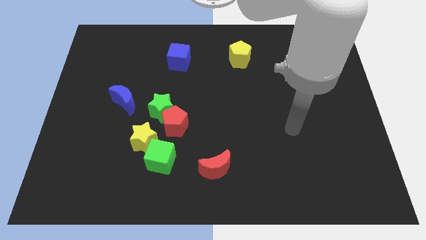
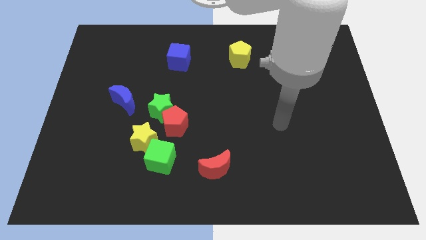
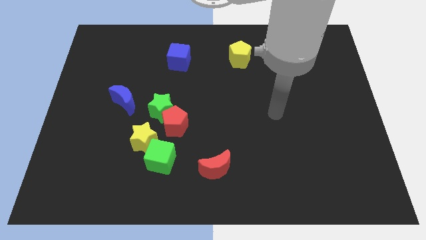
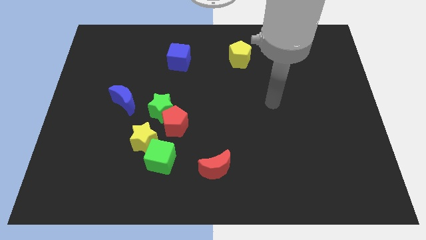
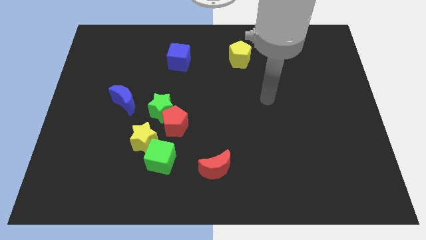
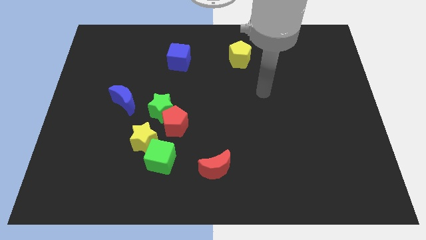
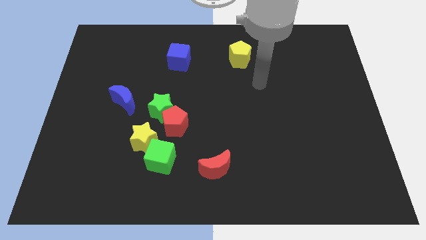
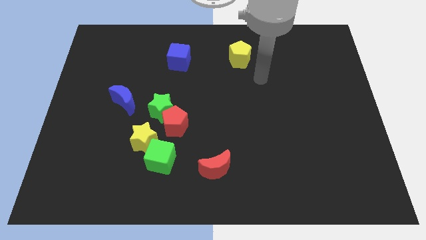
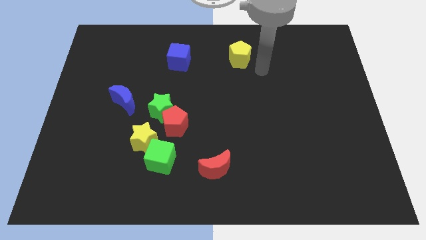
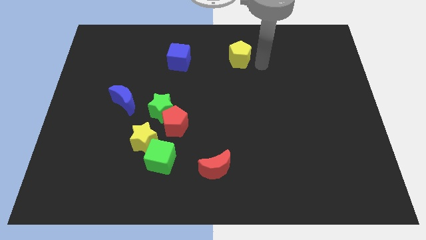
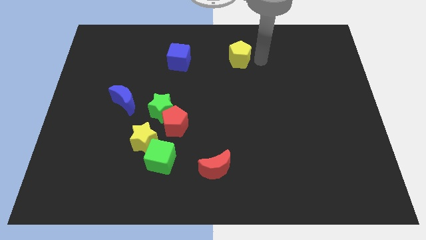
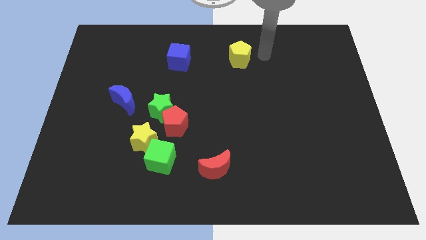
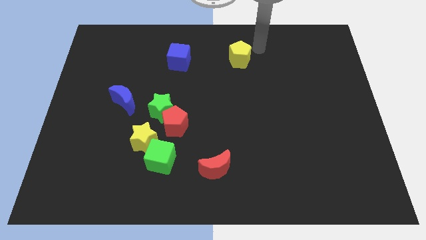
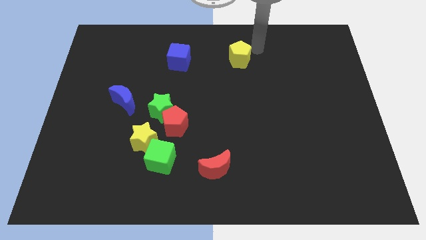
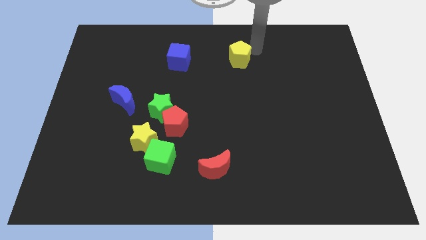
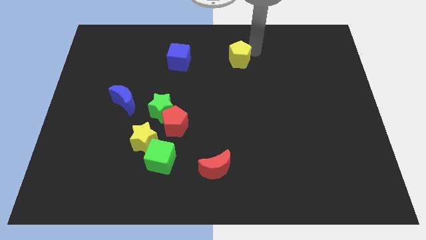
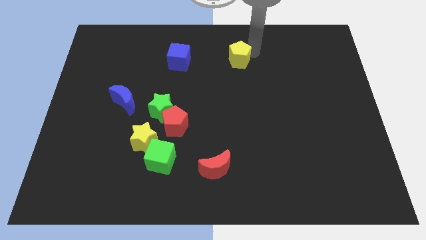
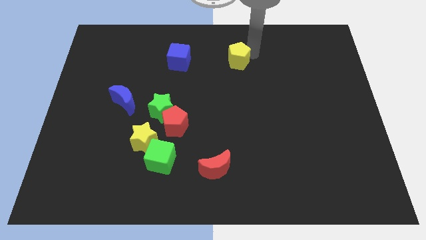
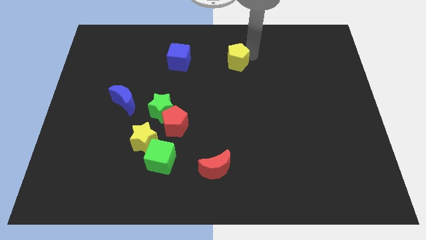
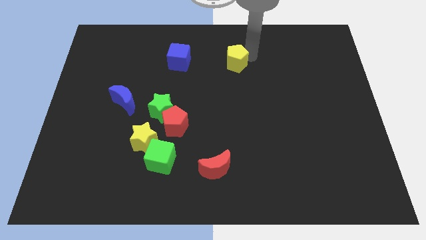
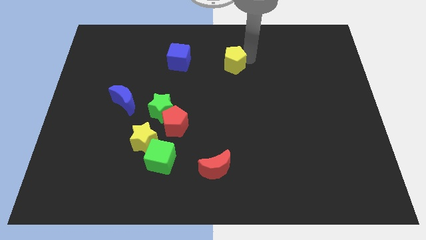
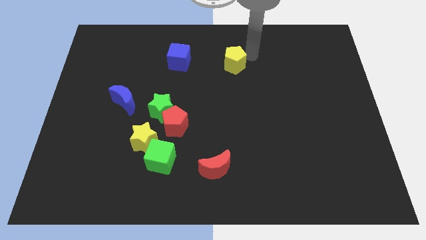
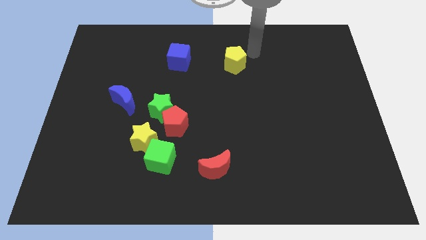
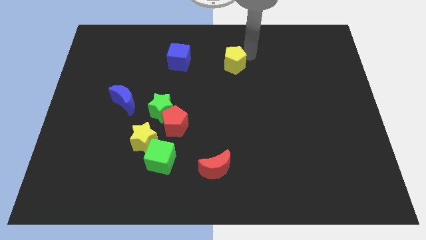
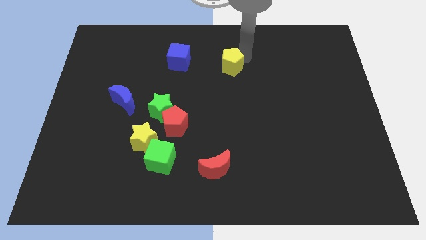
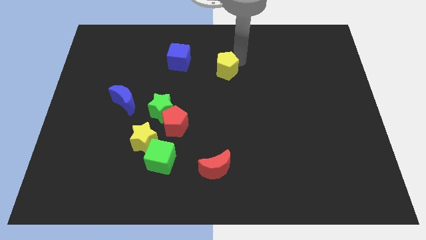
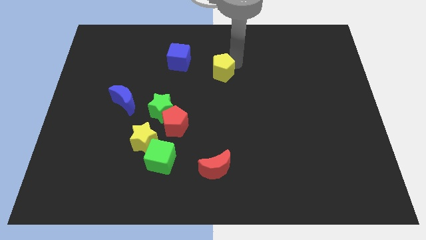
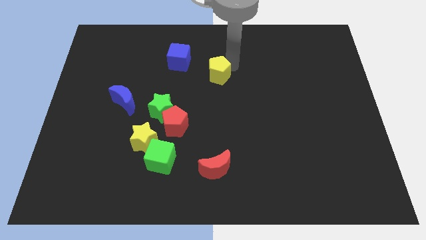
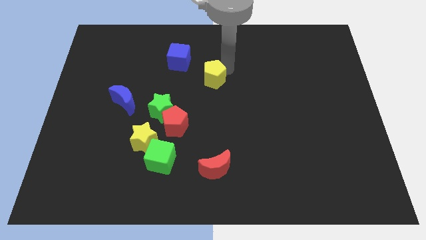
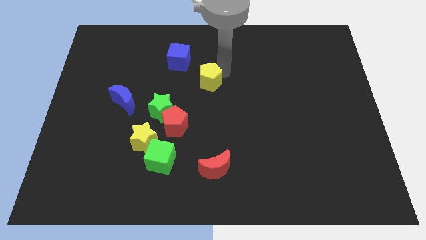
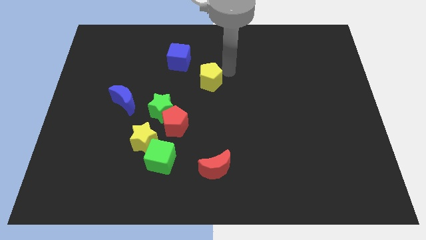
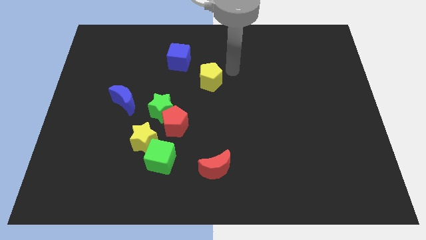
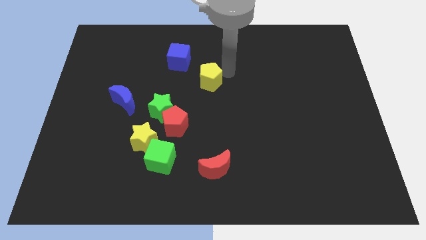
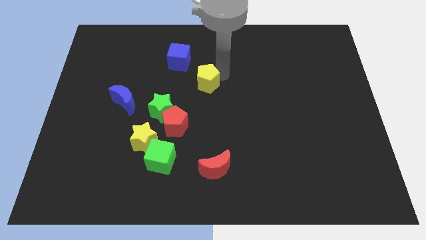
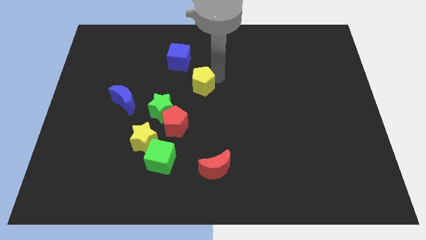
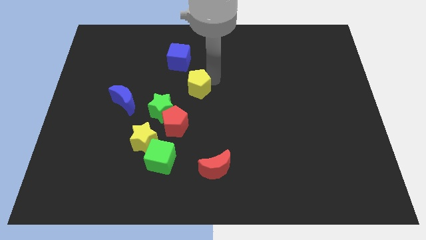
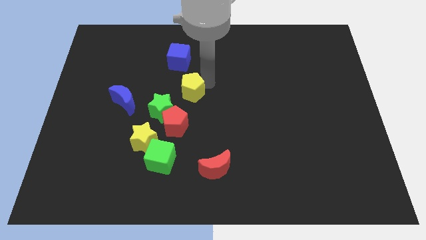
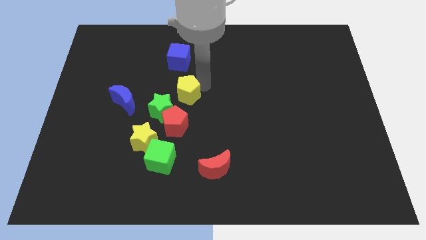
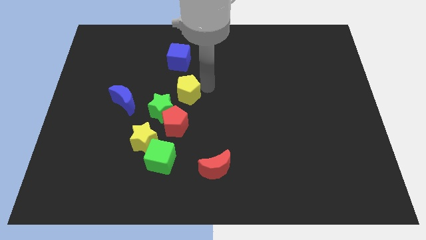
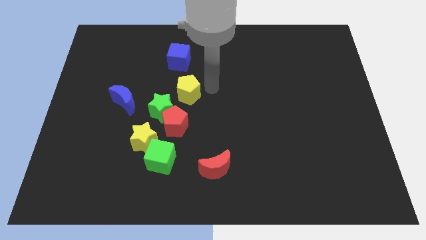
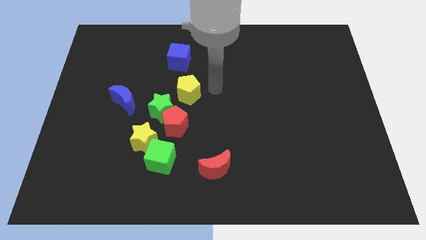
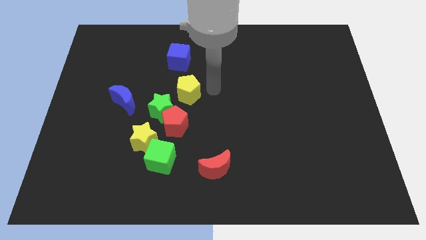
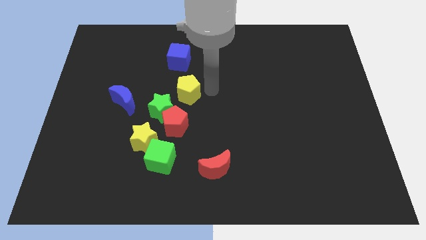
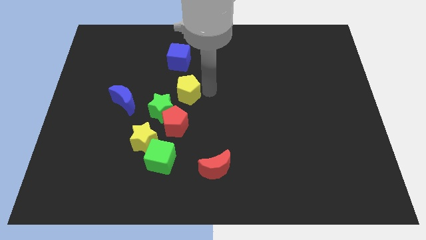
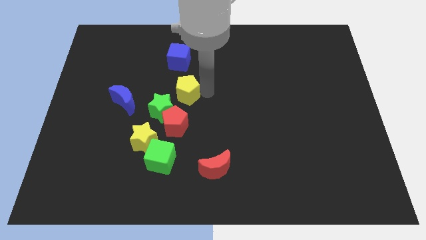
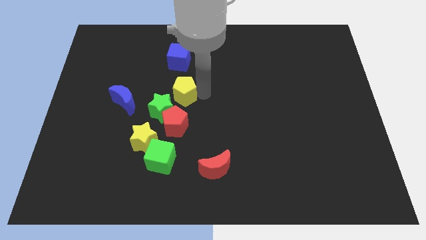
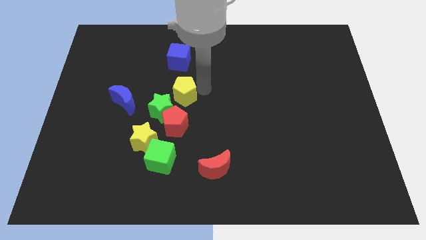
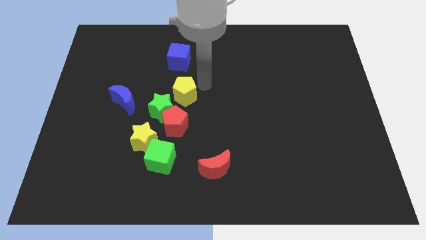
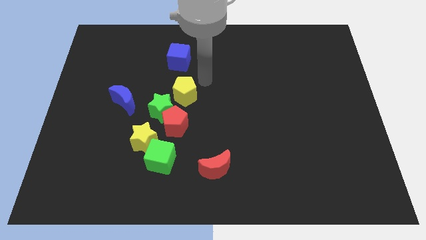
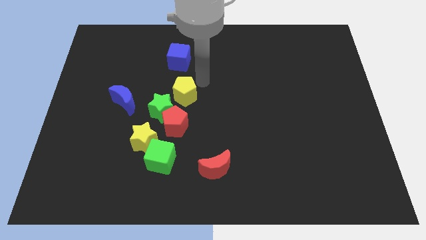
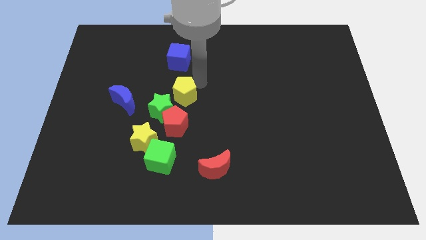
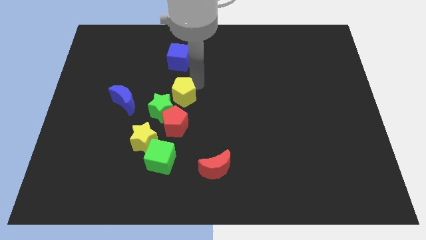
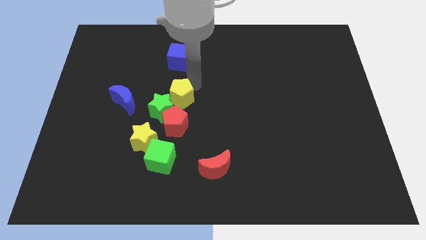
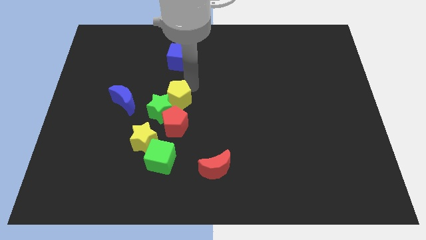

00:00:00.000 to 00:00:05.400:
slide the yellow pentagon to the green star

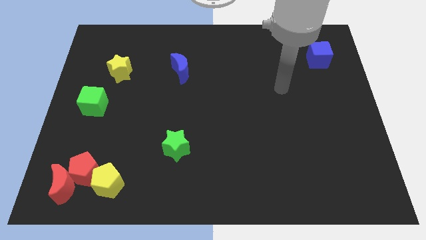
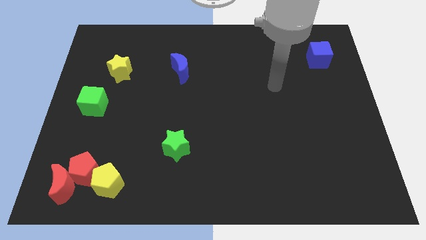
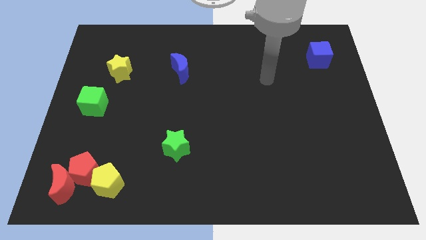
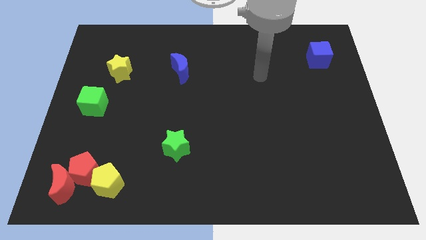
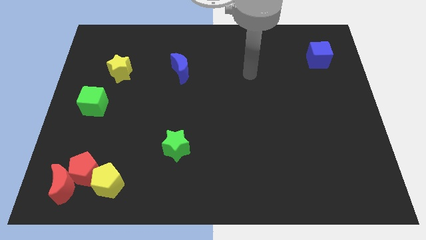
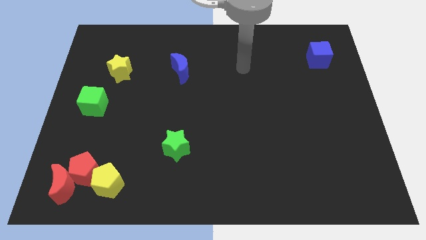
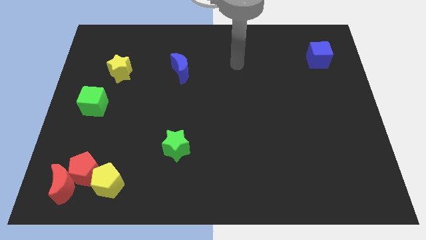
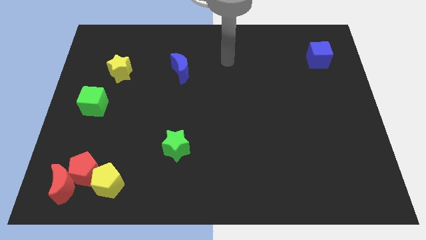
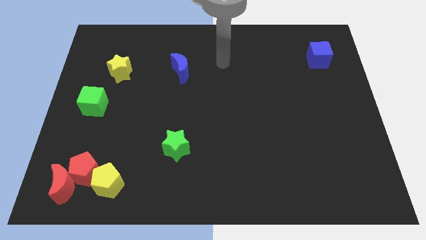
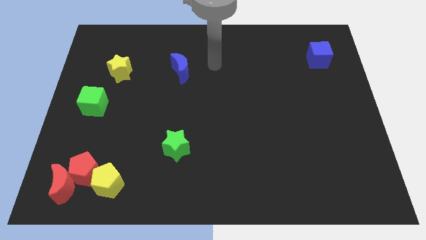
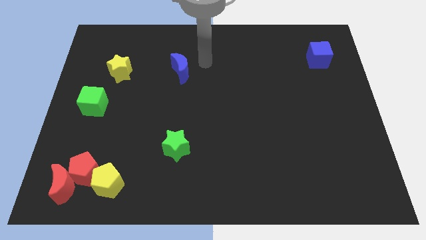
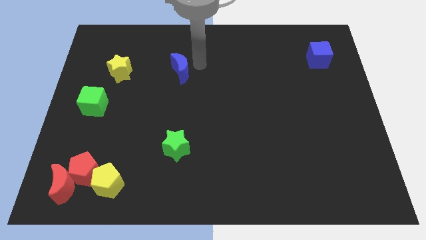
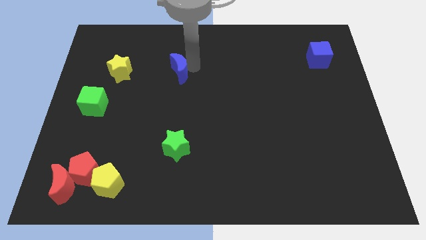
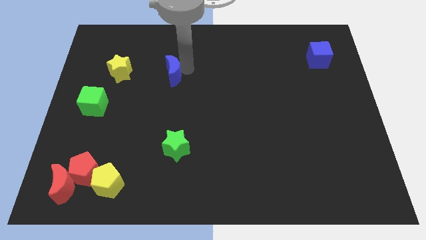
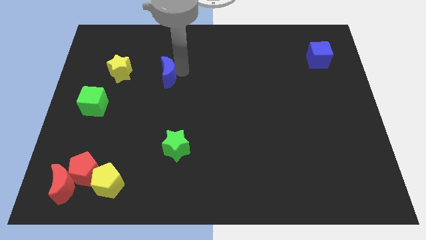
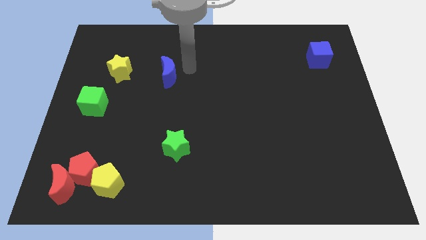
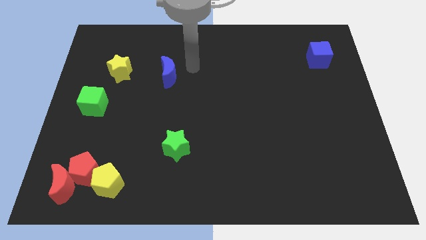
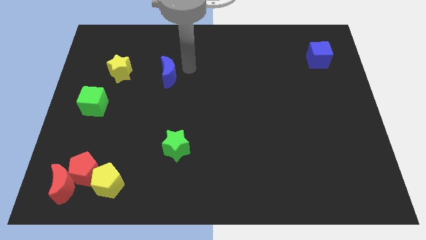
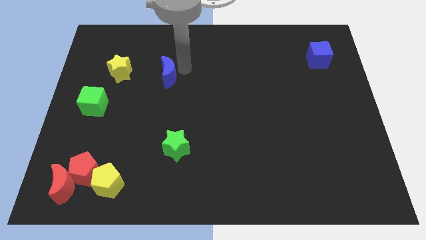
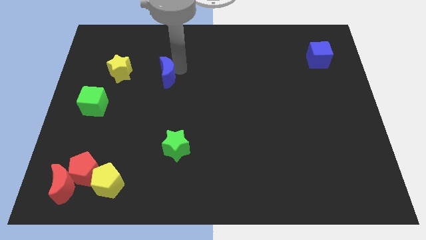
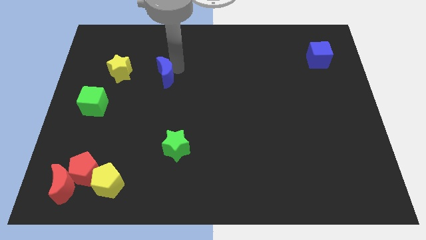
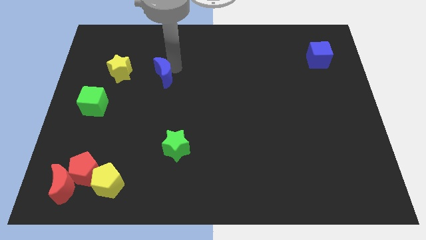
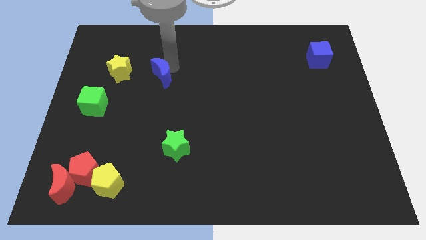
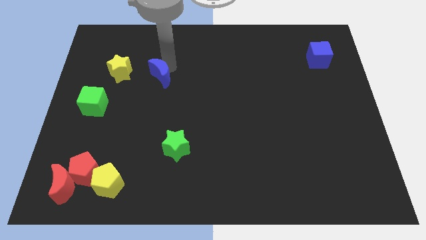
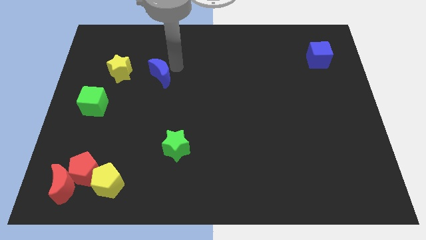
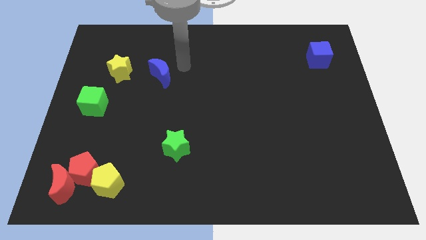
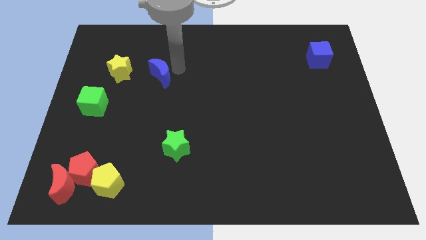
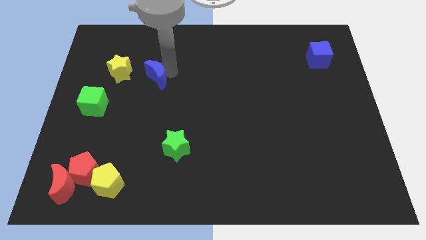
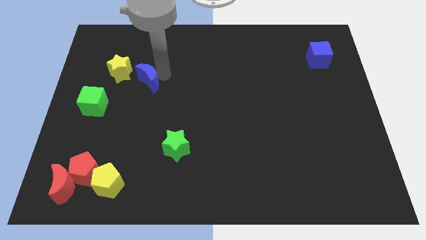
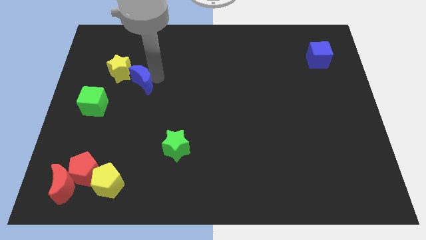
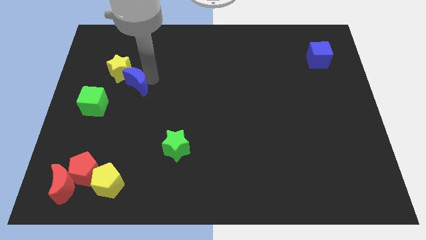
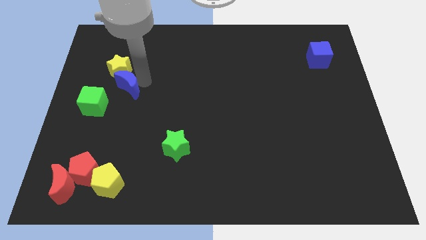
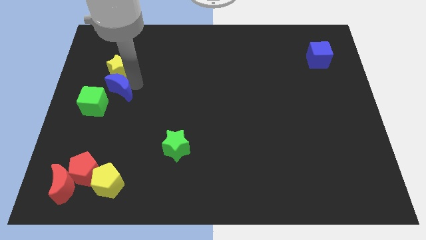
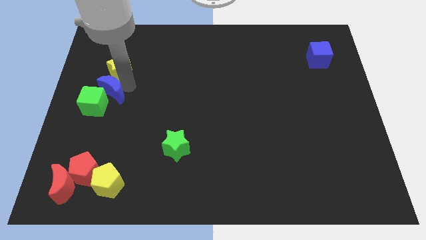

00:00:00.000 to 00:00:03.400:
push the blue moon towards the green cube
